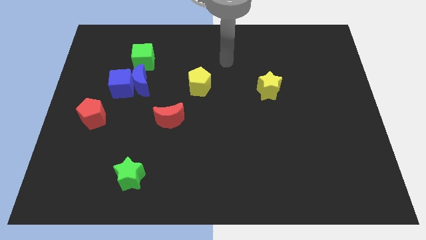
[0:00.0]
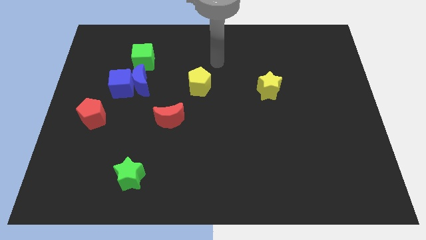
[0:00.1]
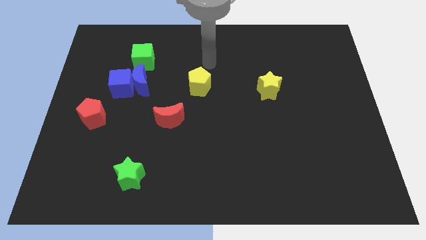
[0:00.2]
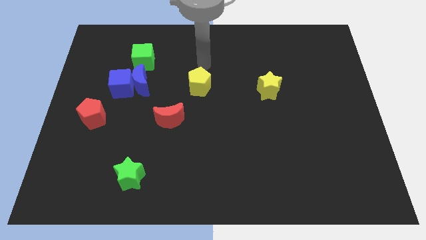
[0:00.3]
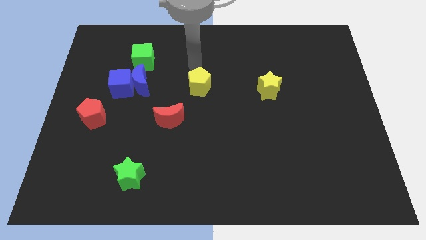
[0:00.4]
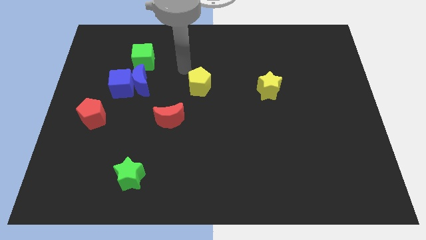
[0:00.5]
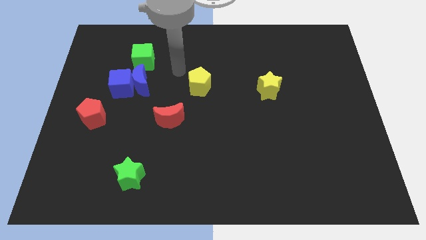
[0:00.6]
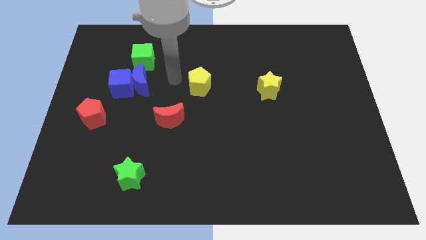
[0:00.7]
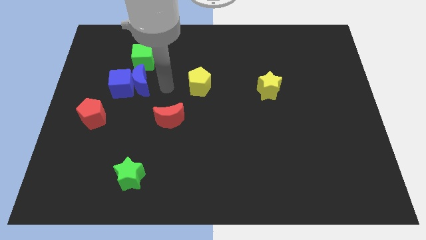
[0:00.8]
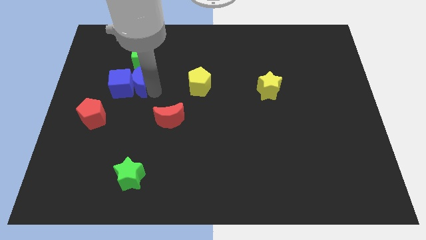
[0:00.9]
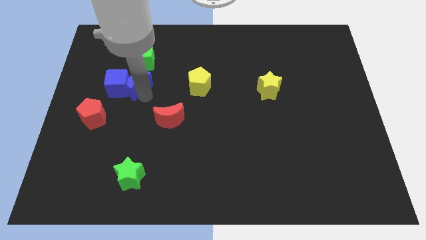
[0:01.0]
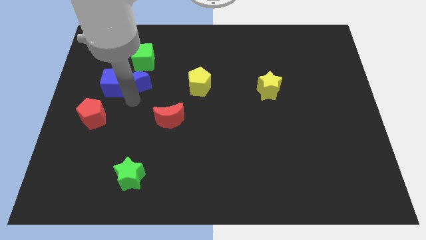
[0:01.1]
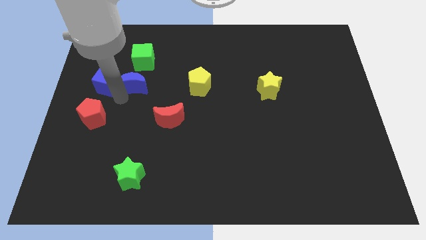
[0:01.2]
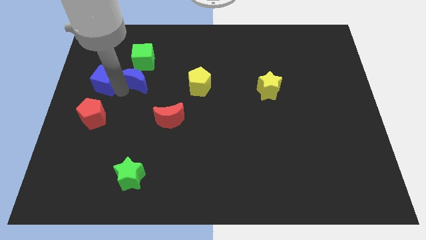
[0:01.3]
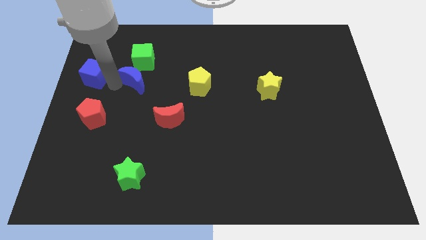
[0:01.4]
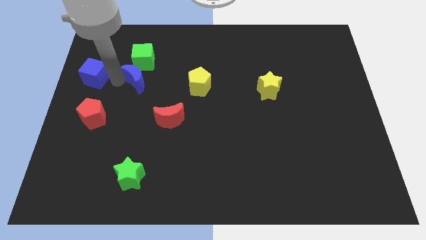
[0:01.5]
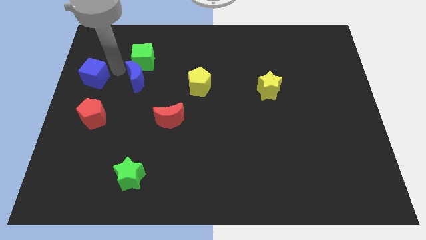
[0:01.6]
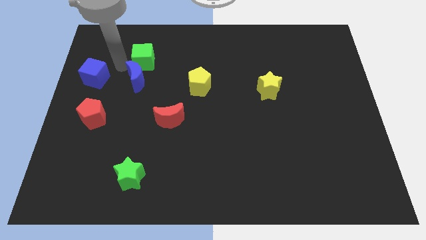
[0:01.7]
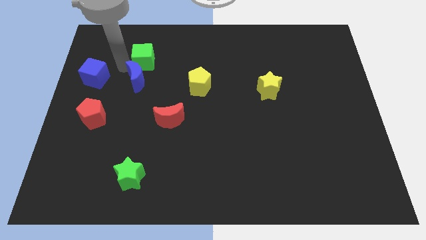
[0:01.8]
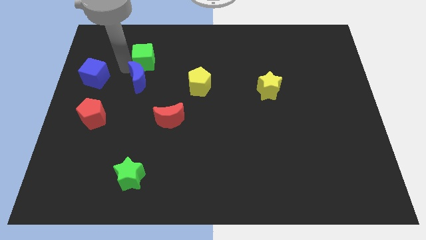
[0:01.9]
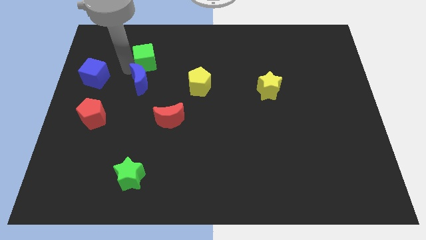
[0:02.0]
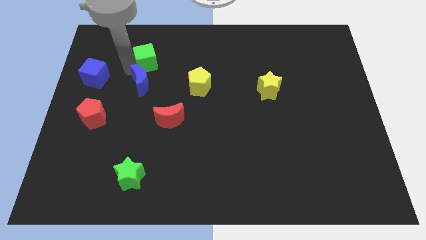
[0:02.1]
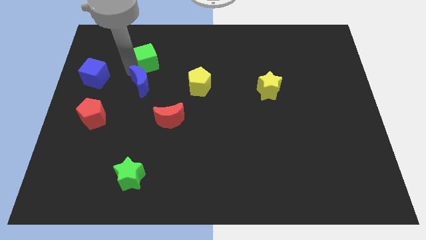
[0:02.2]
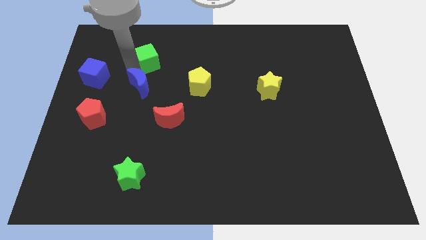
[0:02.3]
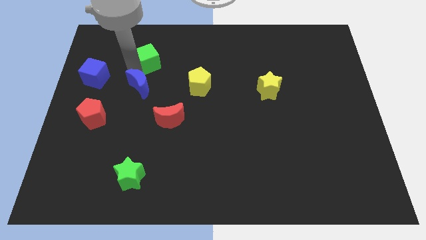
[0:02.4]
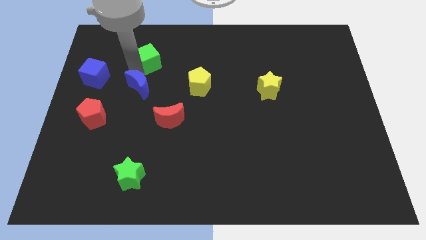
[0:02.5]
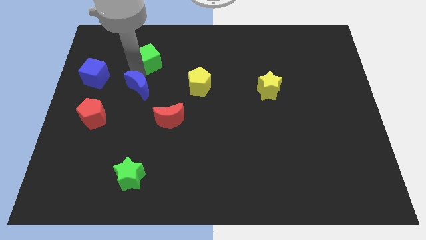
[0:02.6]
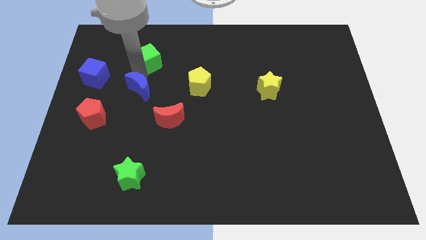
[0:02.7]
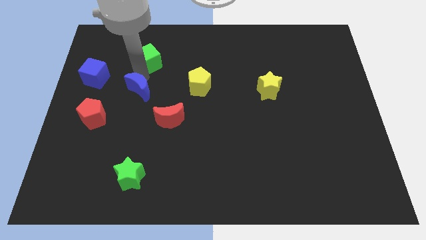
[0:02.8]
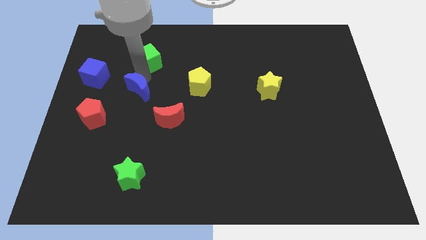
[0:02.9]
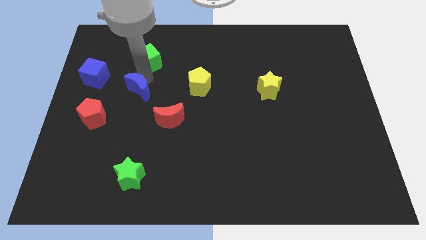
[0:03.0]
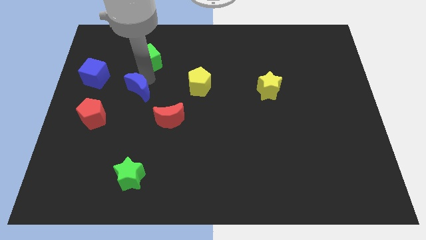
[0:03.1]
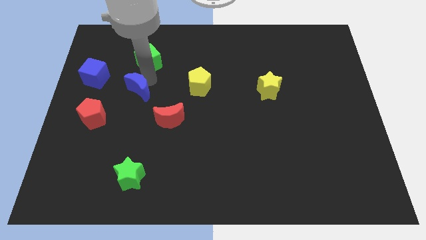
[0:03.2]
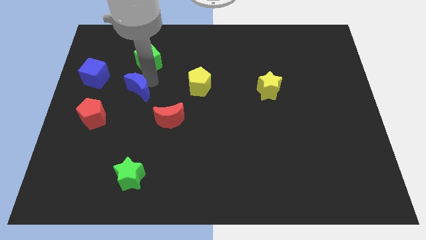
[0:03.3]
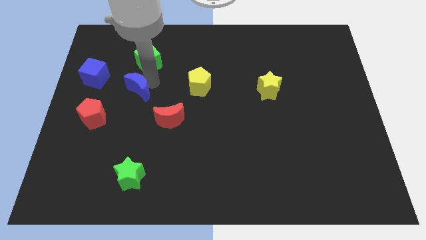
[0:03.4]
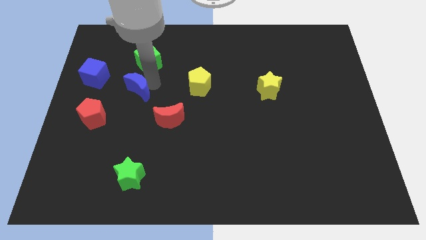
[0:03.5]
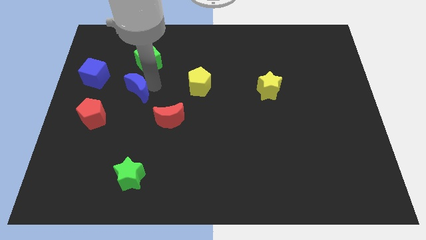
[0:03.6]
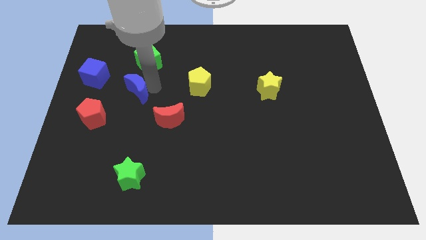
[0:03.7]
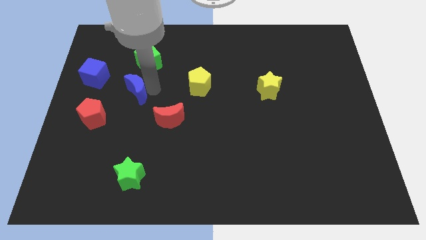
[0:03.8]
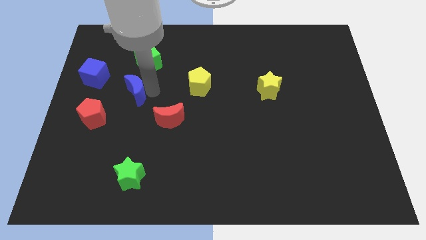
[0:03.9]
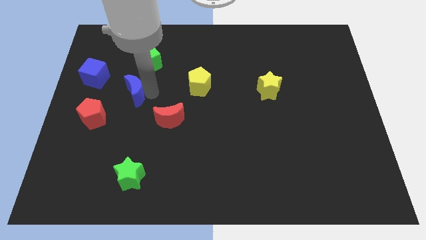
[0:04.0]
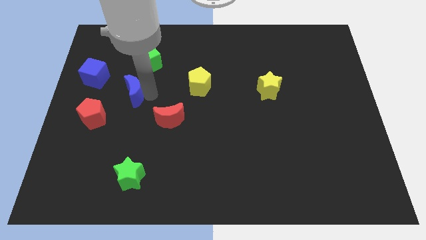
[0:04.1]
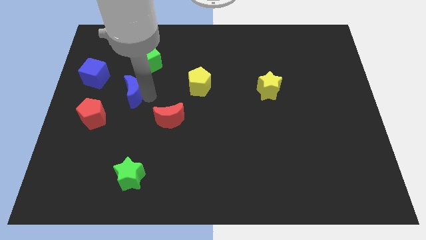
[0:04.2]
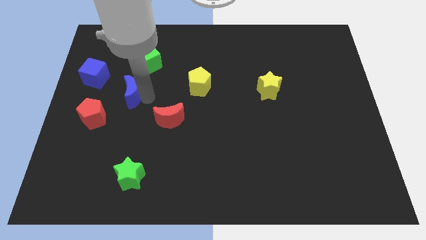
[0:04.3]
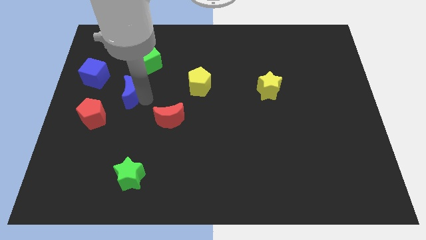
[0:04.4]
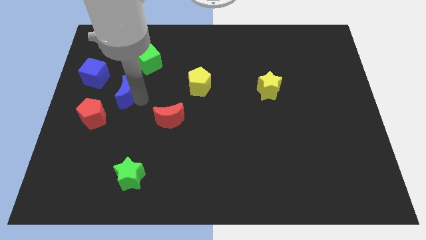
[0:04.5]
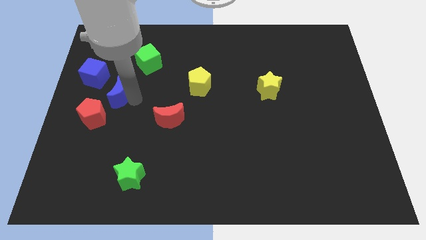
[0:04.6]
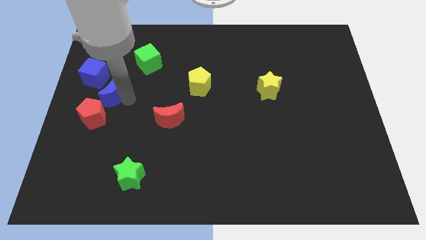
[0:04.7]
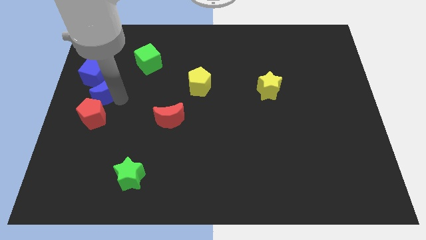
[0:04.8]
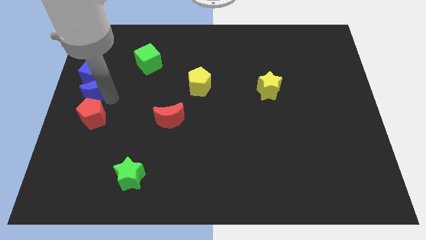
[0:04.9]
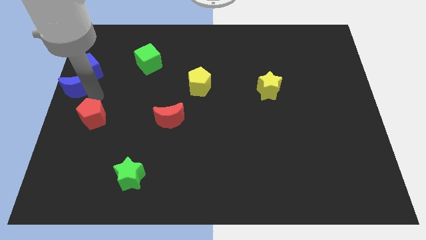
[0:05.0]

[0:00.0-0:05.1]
move the blue moon away from the blue cube and green cube

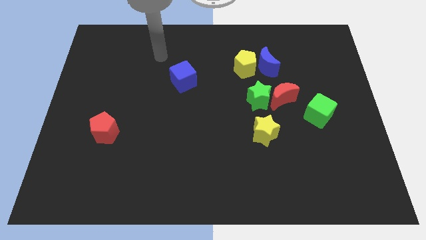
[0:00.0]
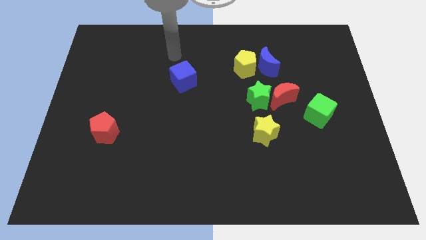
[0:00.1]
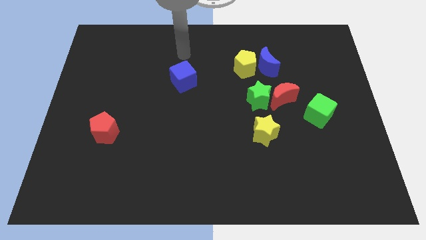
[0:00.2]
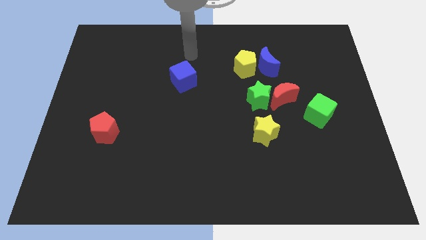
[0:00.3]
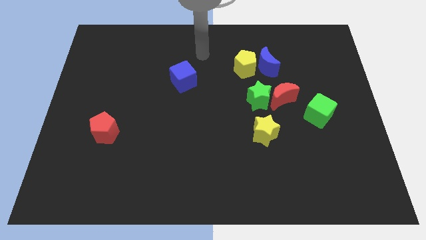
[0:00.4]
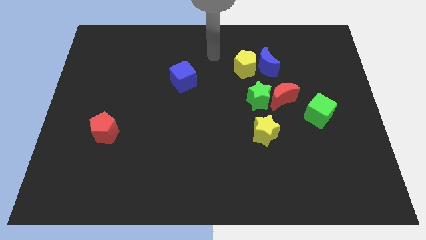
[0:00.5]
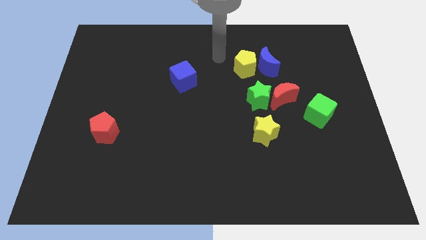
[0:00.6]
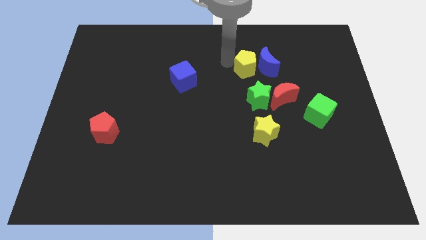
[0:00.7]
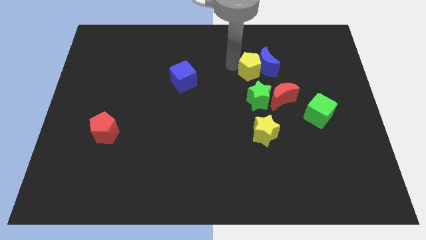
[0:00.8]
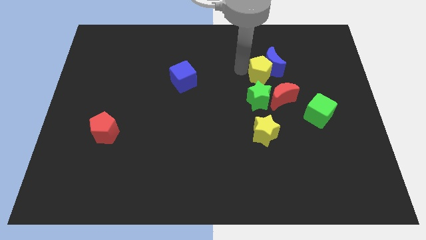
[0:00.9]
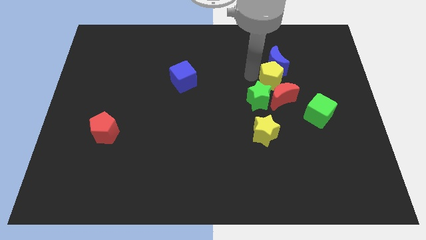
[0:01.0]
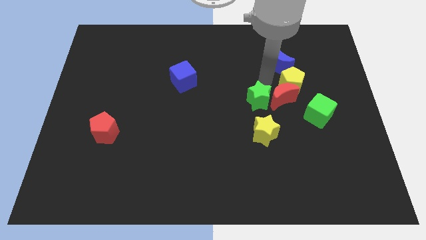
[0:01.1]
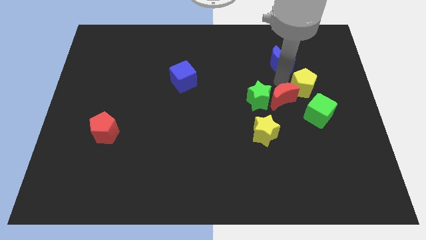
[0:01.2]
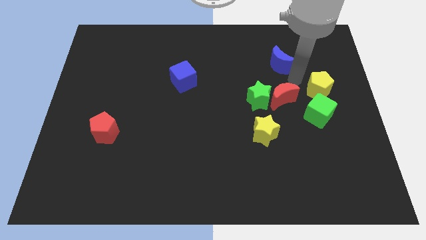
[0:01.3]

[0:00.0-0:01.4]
pull the blue moon apart from the yellow pentagon

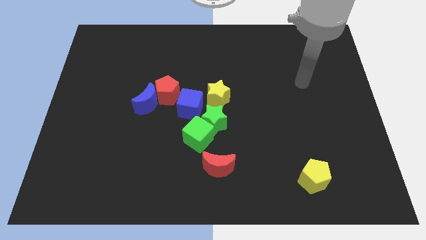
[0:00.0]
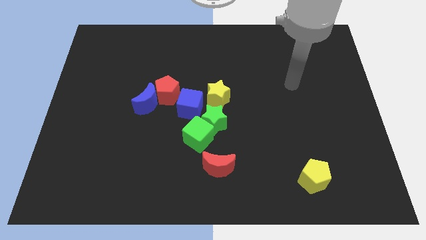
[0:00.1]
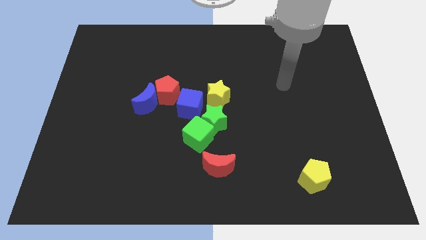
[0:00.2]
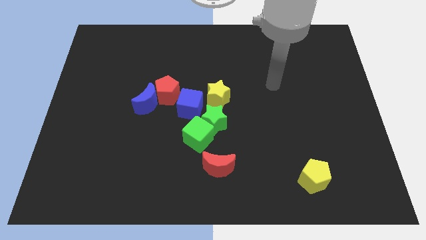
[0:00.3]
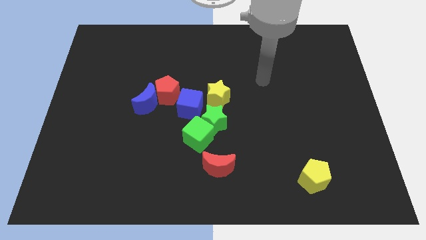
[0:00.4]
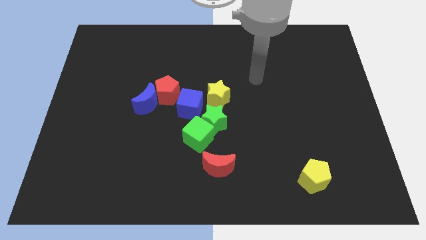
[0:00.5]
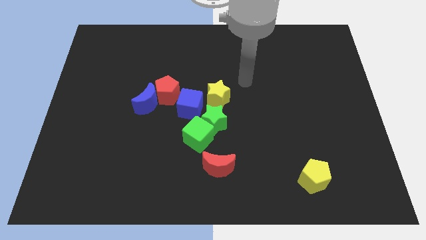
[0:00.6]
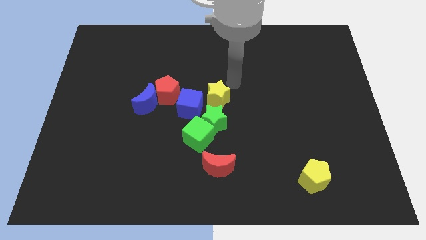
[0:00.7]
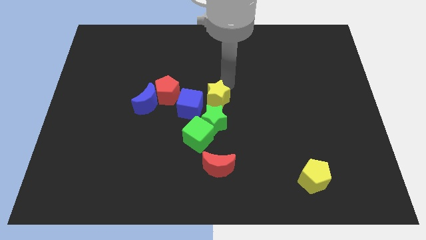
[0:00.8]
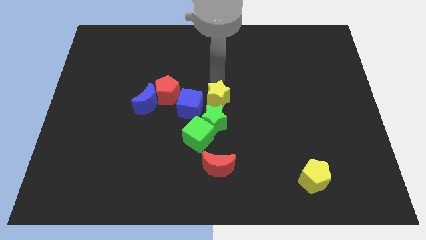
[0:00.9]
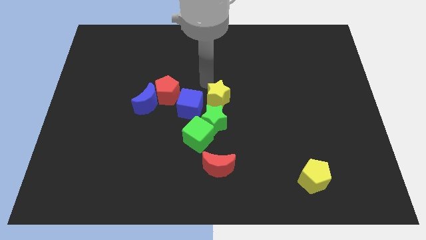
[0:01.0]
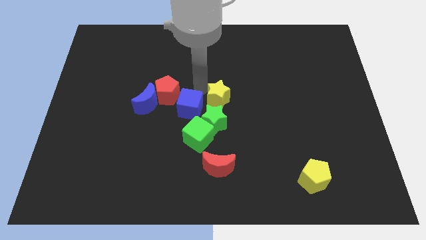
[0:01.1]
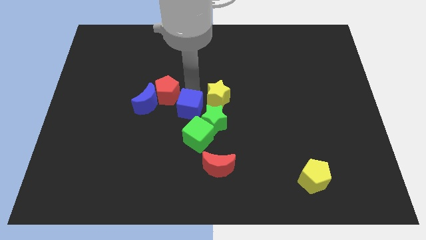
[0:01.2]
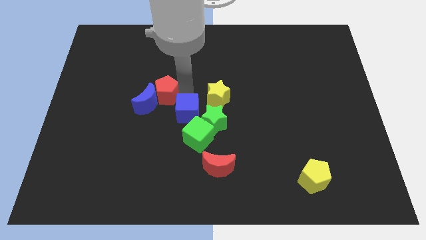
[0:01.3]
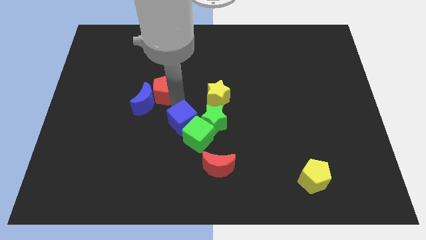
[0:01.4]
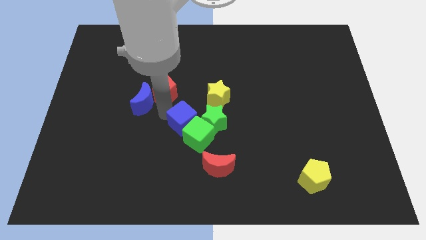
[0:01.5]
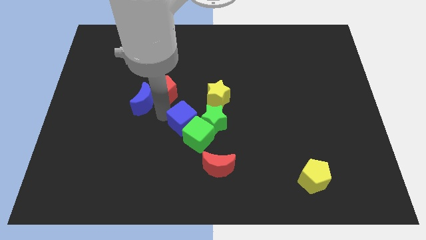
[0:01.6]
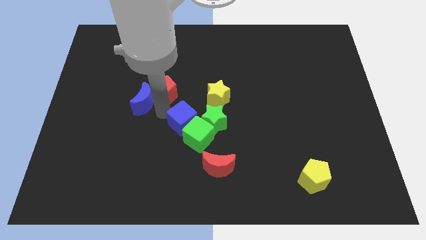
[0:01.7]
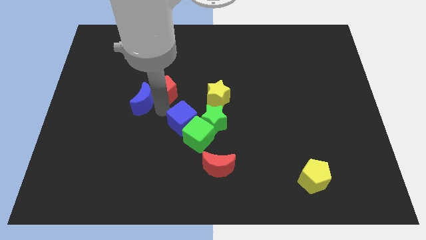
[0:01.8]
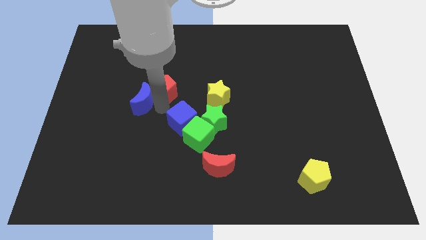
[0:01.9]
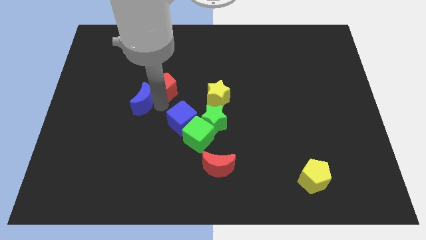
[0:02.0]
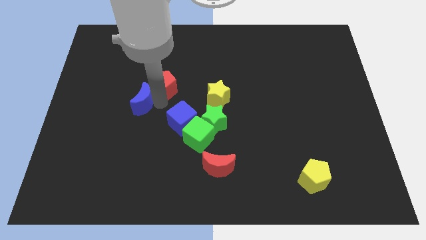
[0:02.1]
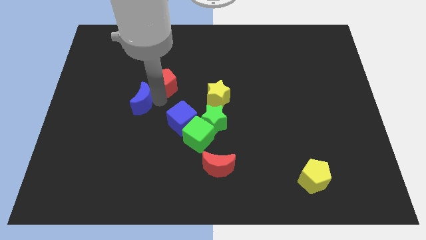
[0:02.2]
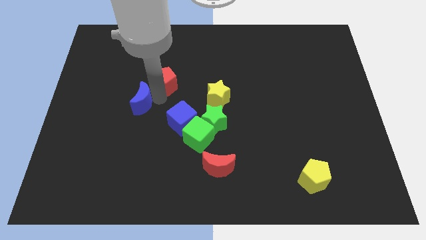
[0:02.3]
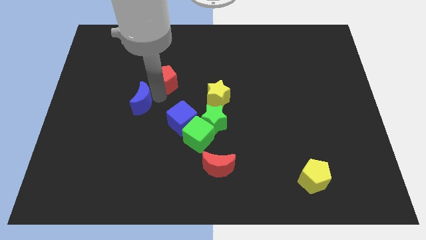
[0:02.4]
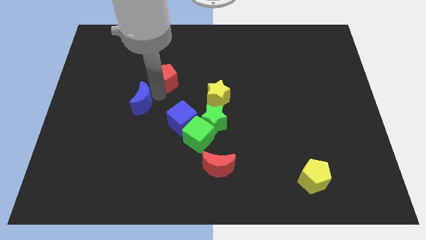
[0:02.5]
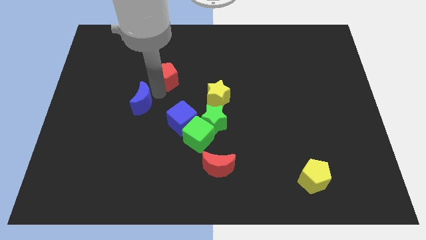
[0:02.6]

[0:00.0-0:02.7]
pull the red pentagon apart from the blue moon and blue cube

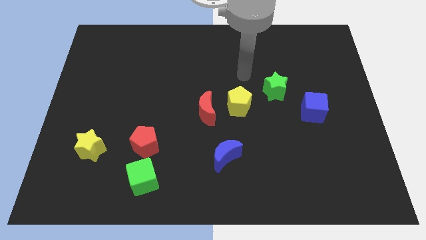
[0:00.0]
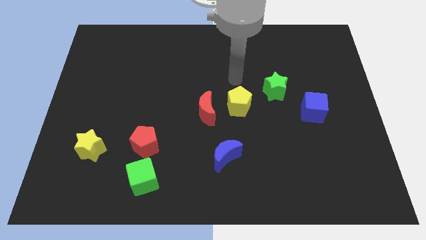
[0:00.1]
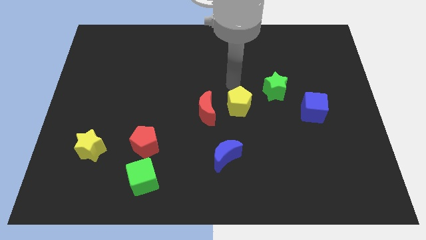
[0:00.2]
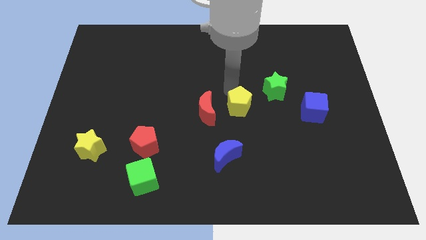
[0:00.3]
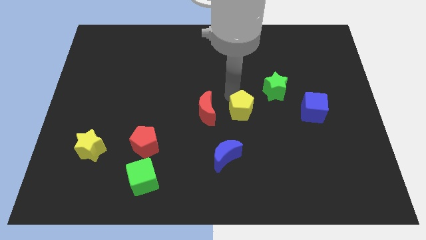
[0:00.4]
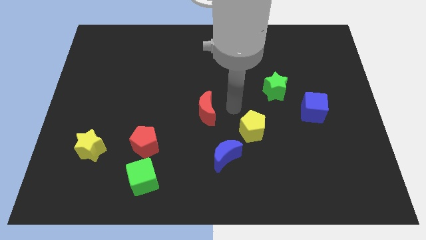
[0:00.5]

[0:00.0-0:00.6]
pull the red moon apart from the yellow pentagon
